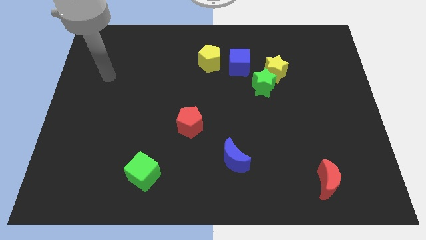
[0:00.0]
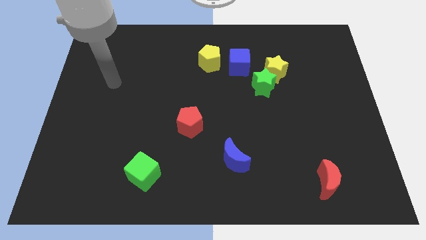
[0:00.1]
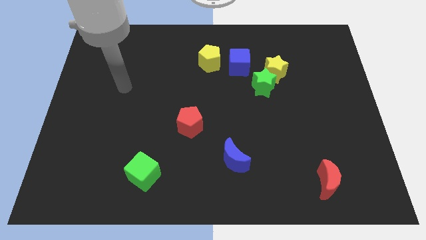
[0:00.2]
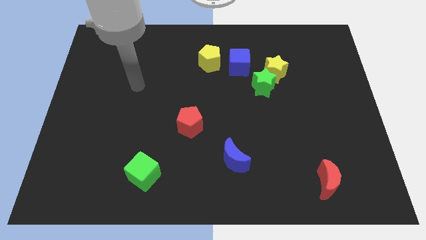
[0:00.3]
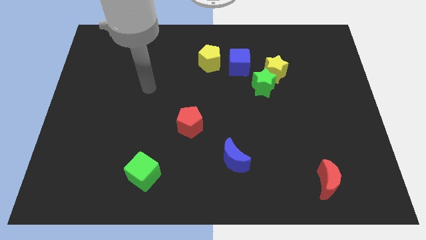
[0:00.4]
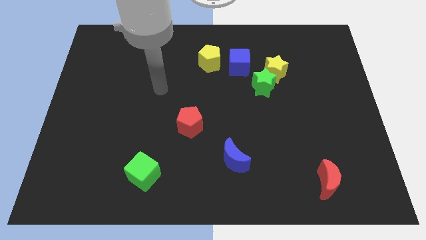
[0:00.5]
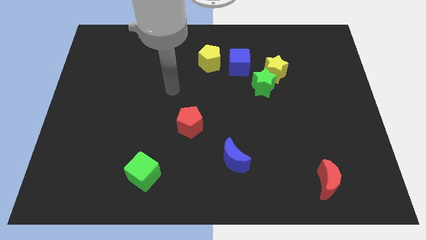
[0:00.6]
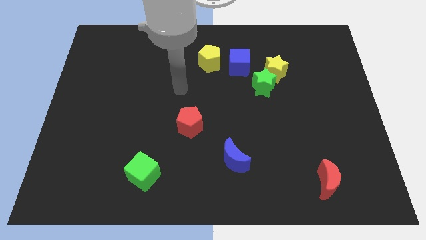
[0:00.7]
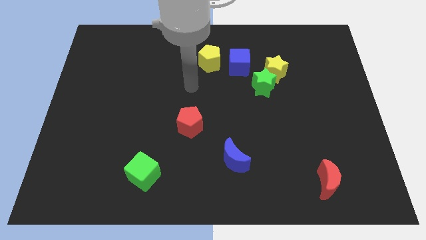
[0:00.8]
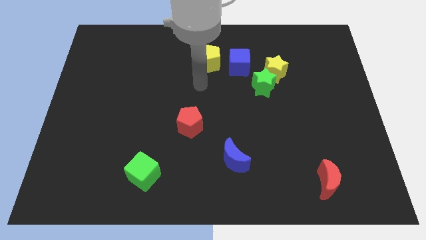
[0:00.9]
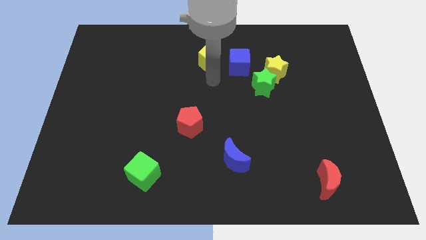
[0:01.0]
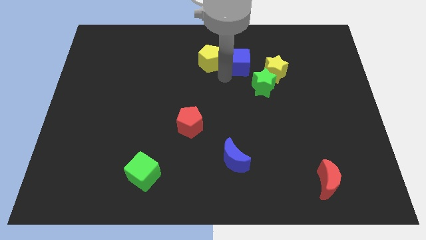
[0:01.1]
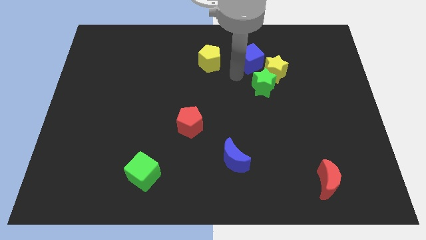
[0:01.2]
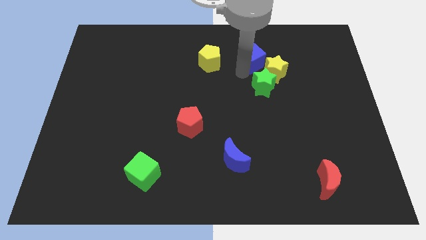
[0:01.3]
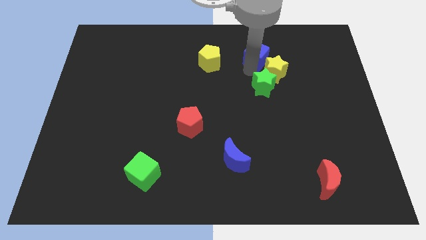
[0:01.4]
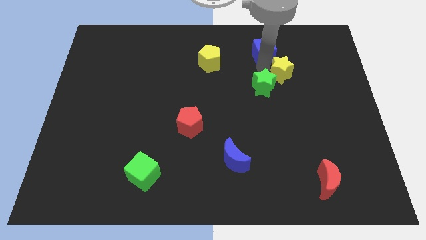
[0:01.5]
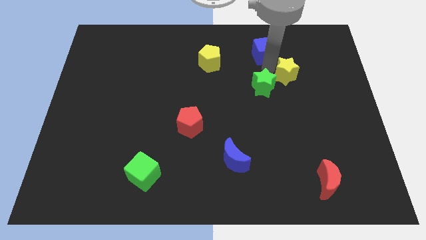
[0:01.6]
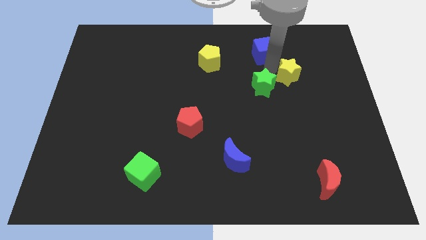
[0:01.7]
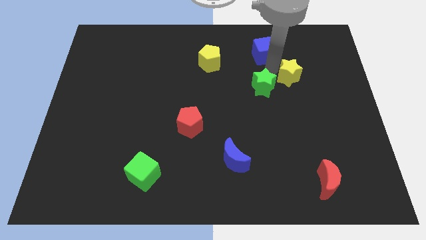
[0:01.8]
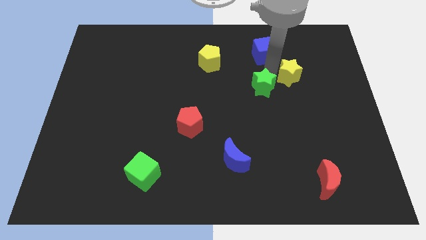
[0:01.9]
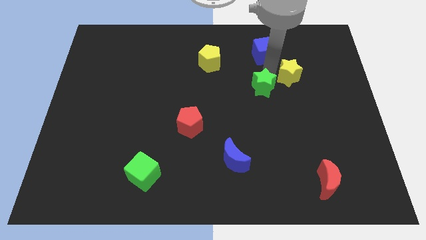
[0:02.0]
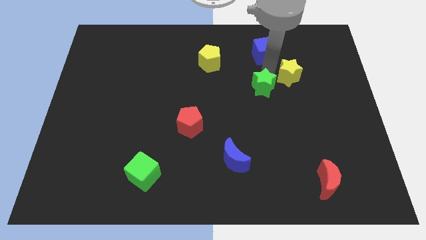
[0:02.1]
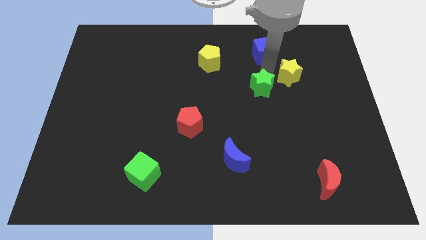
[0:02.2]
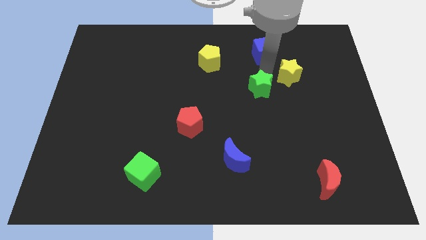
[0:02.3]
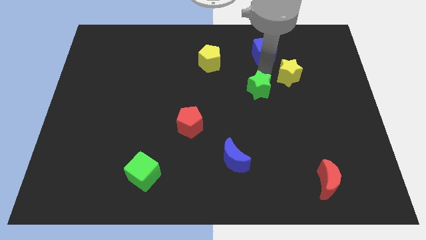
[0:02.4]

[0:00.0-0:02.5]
separate the green star from the yellow star and blue cube

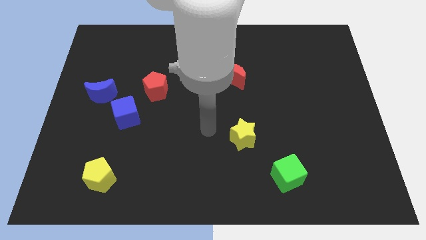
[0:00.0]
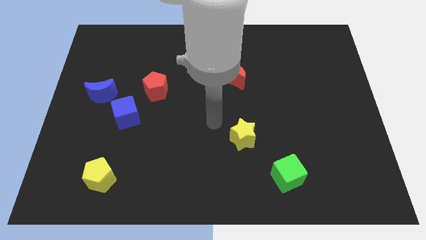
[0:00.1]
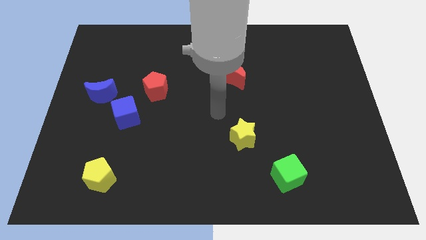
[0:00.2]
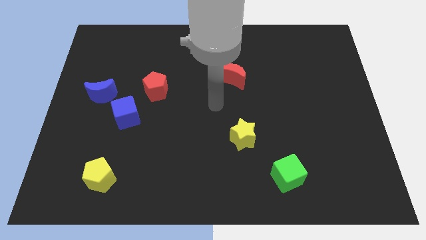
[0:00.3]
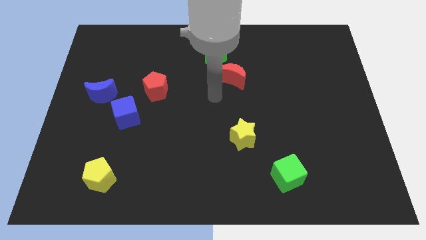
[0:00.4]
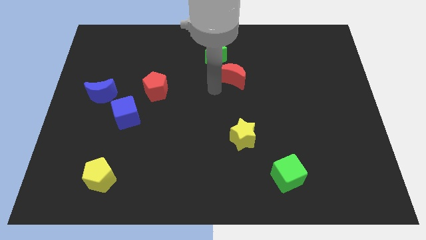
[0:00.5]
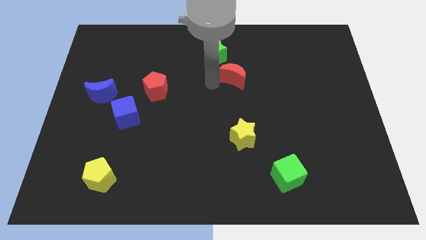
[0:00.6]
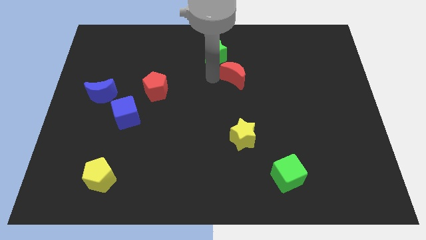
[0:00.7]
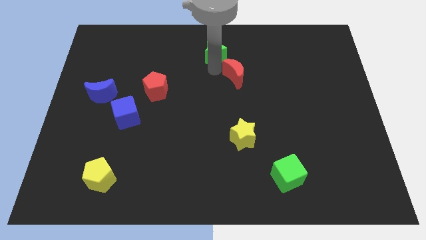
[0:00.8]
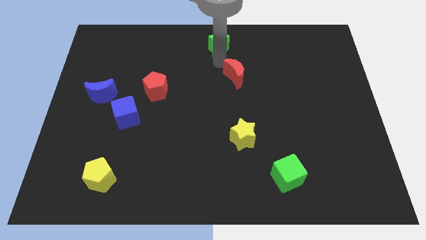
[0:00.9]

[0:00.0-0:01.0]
separate the red moon from the green star

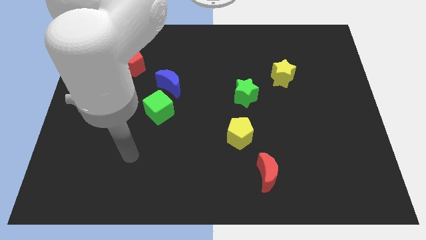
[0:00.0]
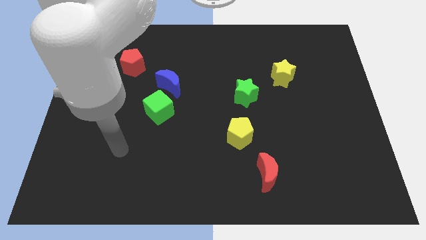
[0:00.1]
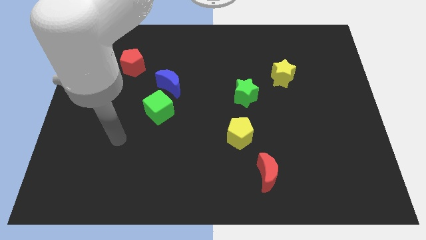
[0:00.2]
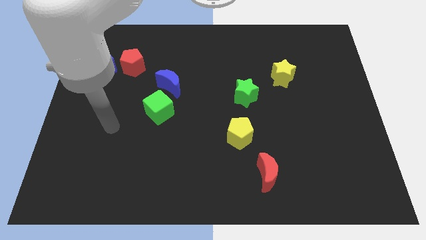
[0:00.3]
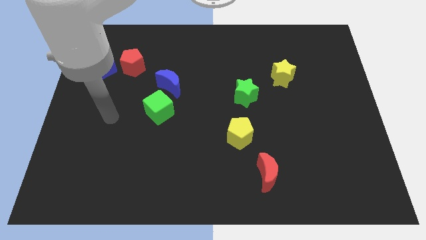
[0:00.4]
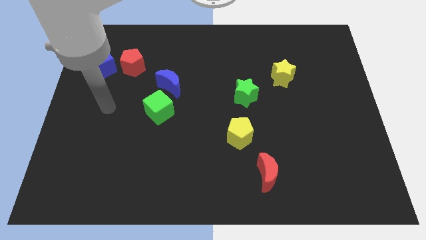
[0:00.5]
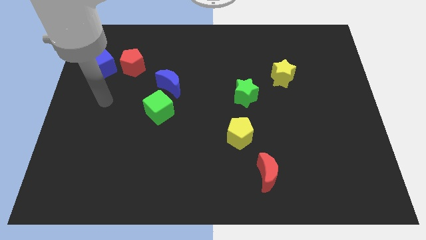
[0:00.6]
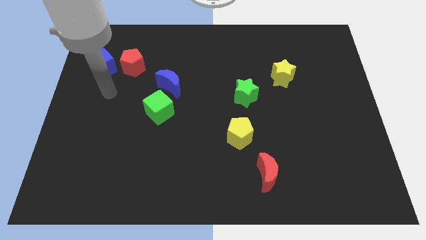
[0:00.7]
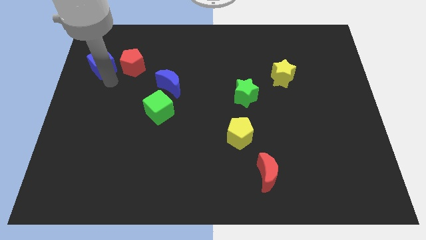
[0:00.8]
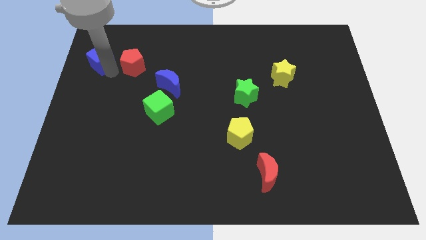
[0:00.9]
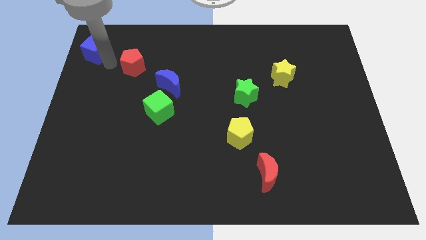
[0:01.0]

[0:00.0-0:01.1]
pull the red pentagon apart from the blue cube

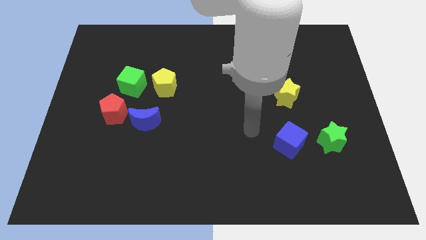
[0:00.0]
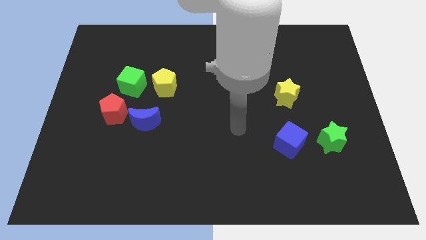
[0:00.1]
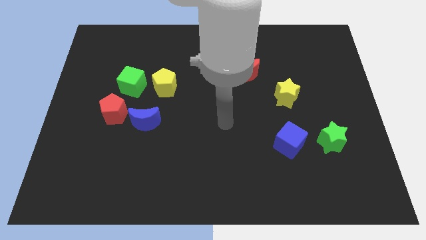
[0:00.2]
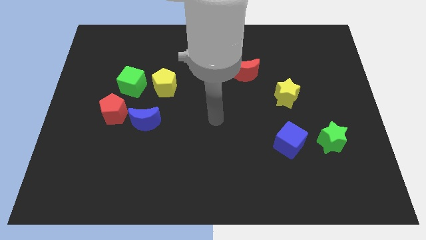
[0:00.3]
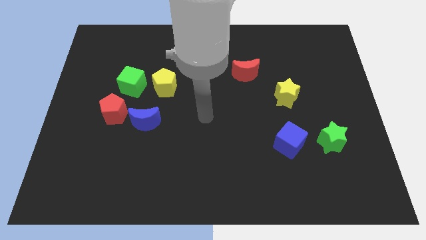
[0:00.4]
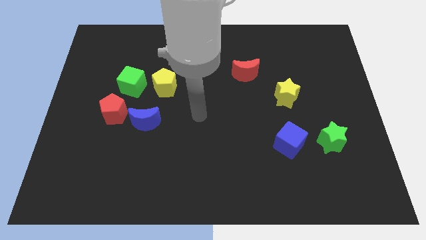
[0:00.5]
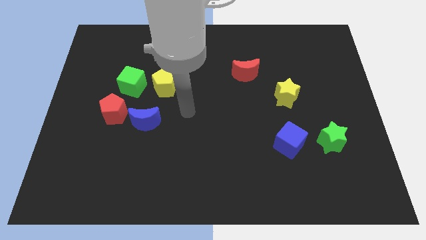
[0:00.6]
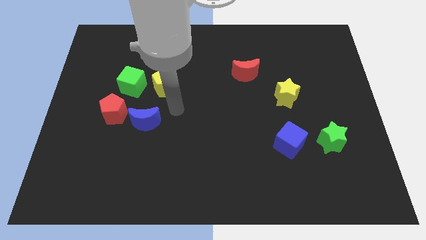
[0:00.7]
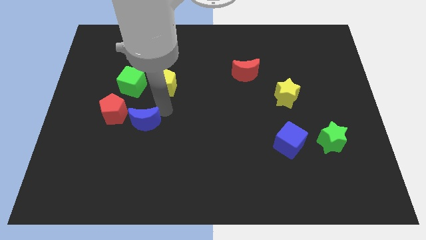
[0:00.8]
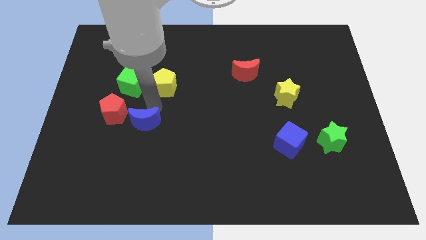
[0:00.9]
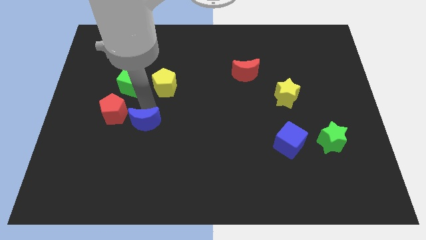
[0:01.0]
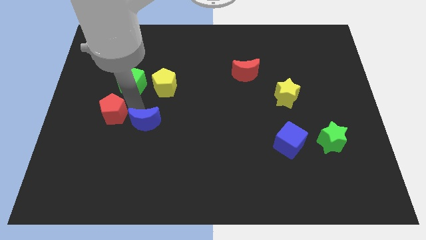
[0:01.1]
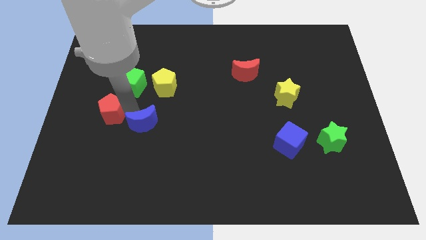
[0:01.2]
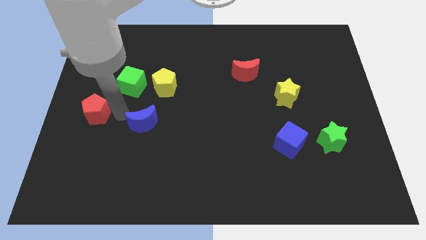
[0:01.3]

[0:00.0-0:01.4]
separate the blue moon from the red pentagon

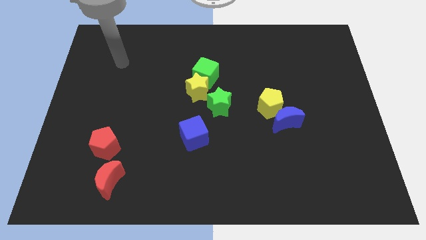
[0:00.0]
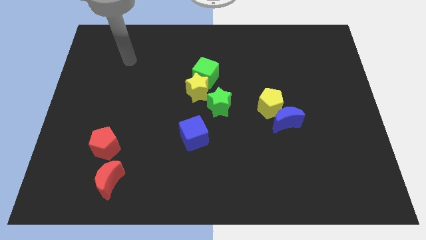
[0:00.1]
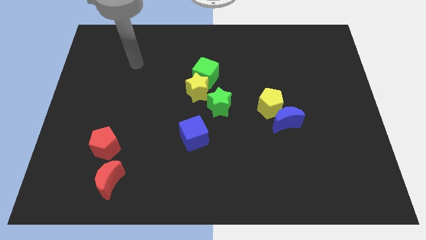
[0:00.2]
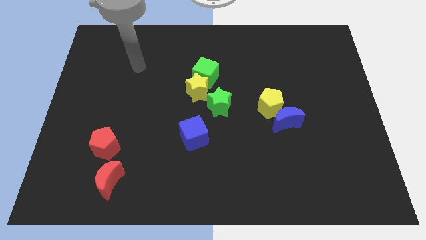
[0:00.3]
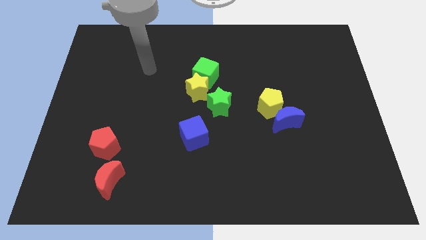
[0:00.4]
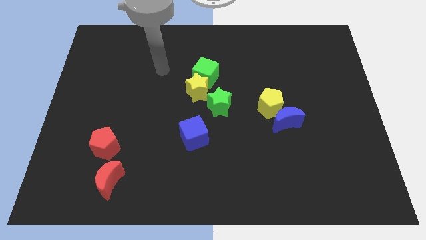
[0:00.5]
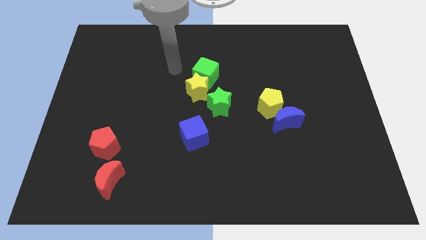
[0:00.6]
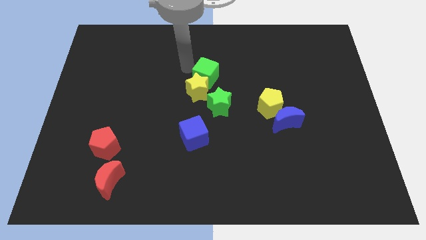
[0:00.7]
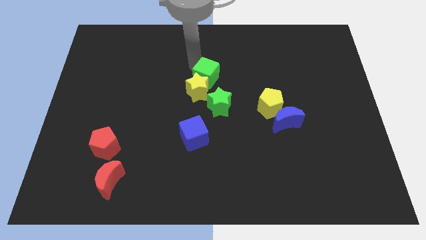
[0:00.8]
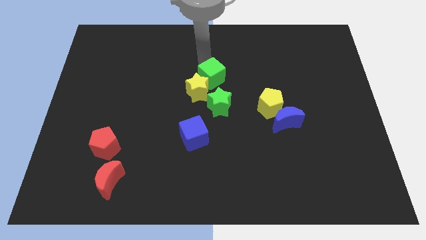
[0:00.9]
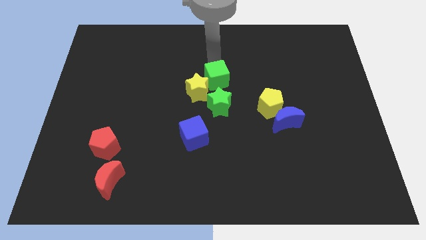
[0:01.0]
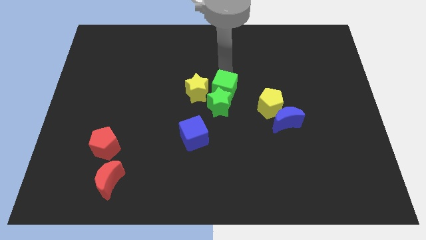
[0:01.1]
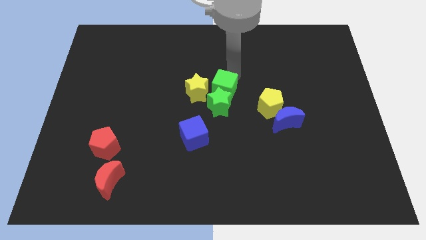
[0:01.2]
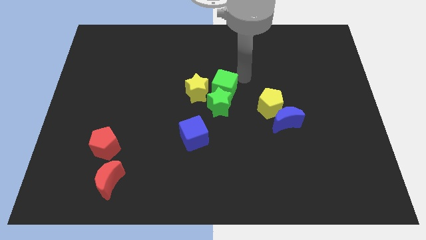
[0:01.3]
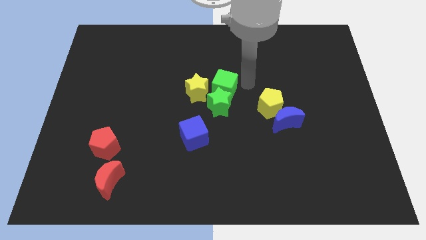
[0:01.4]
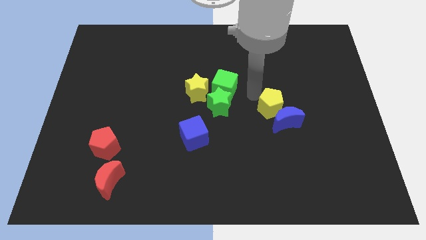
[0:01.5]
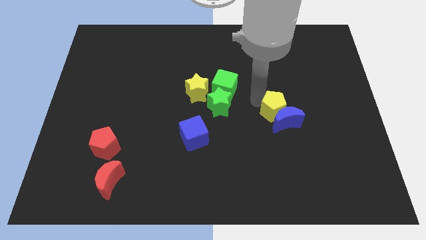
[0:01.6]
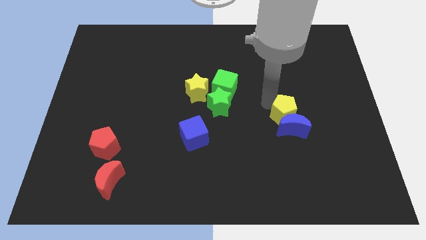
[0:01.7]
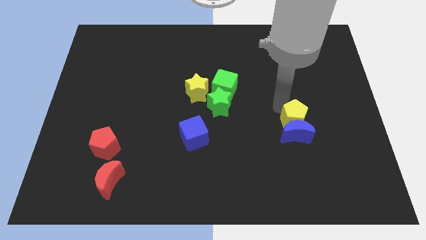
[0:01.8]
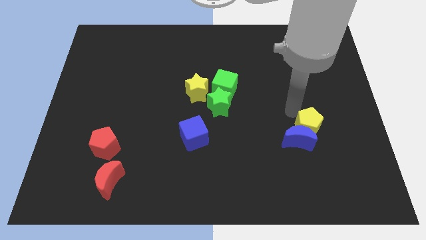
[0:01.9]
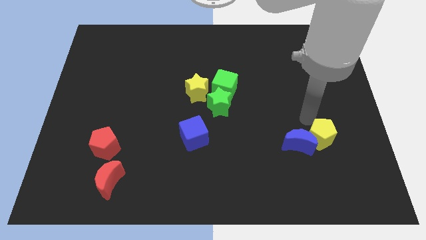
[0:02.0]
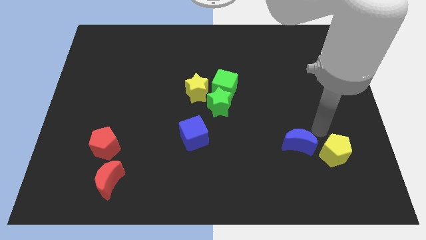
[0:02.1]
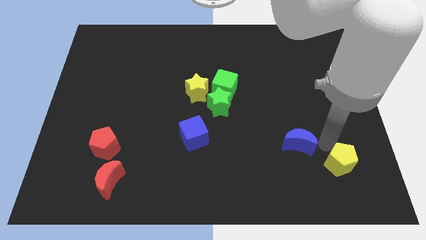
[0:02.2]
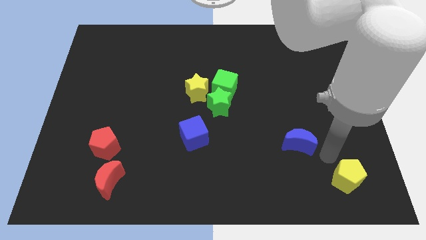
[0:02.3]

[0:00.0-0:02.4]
separate the blue moon from the yellow pentagon

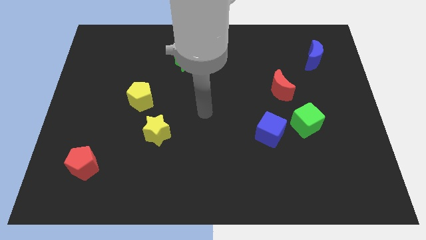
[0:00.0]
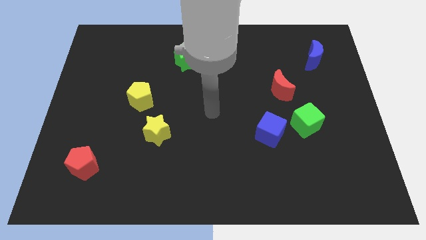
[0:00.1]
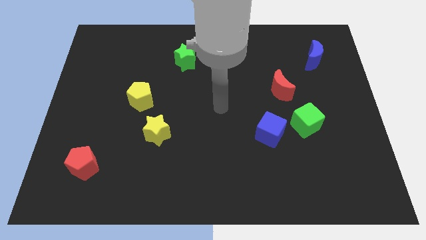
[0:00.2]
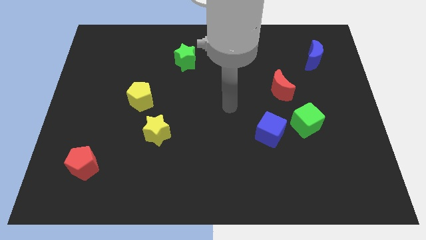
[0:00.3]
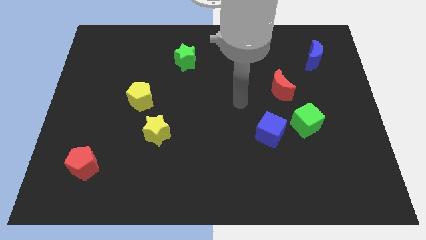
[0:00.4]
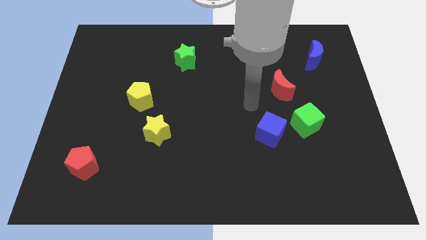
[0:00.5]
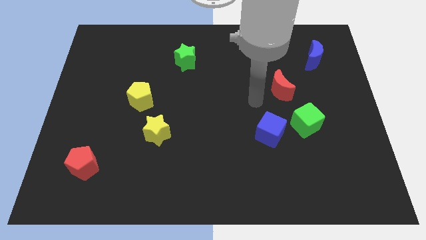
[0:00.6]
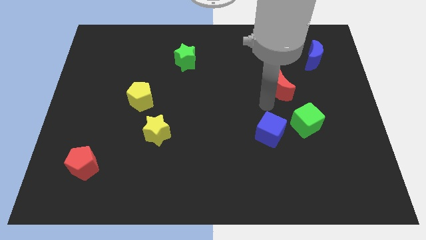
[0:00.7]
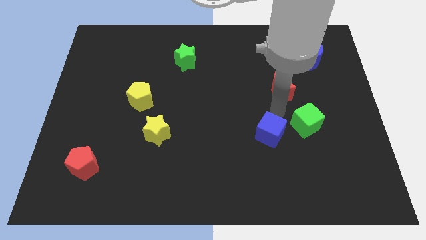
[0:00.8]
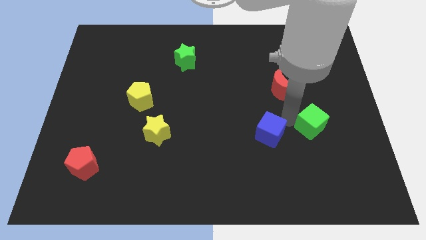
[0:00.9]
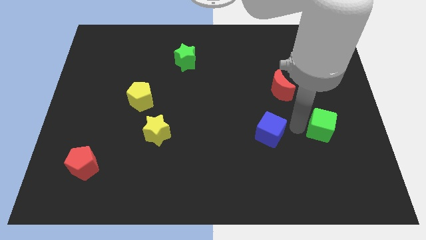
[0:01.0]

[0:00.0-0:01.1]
separate the blue cube from the green cube
